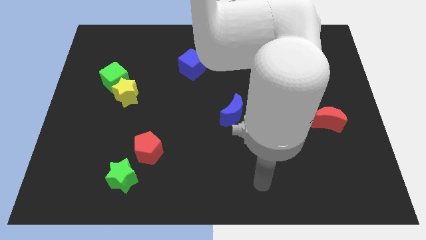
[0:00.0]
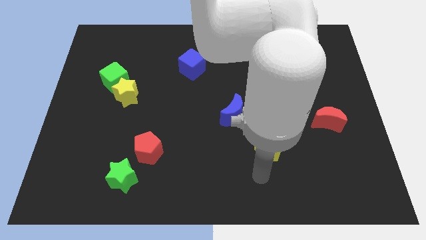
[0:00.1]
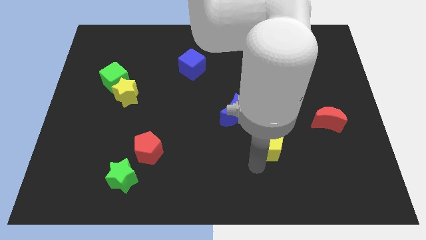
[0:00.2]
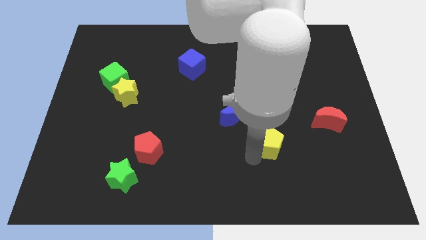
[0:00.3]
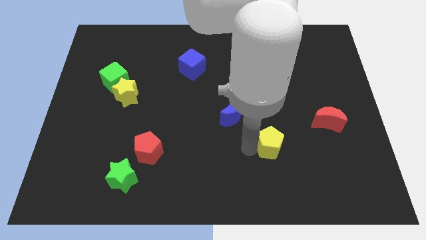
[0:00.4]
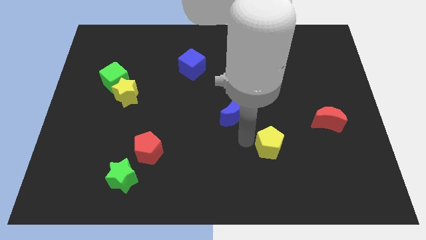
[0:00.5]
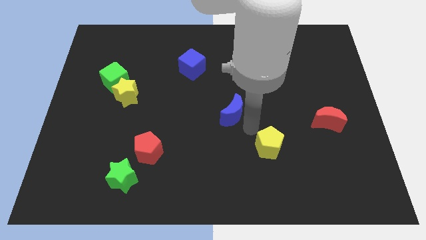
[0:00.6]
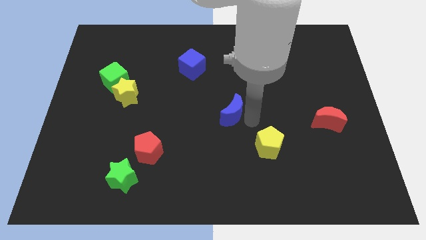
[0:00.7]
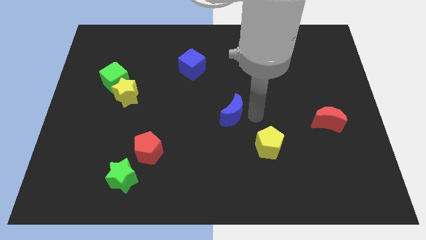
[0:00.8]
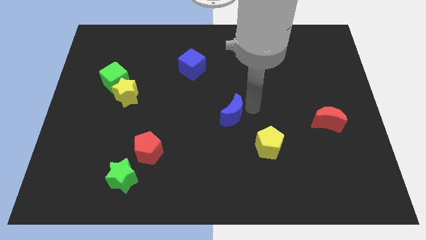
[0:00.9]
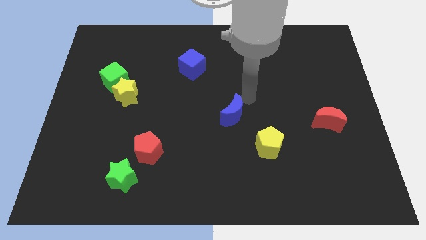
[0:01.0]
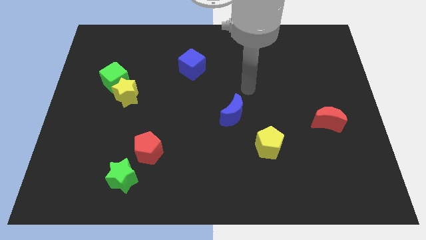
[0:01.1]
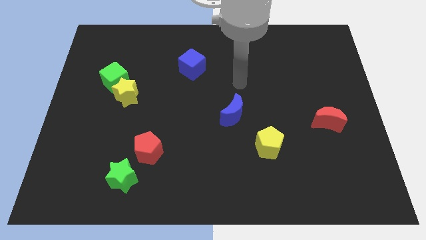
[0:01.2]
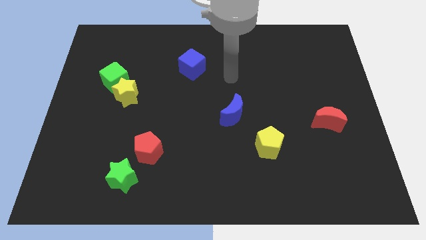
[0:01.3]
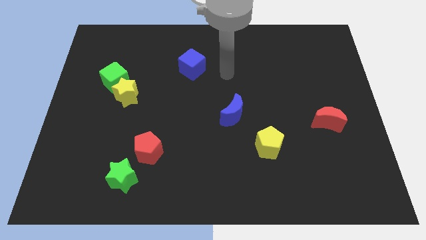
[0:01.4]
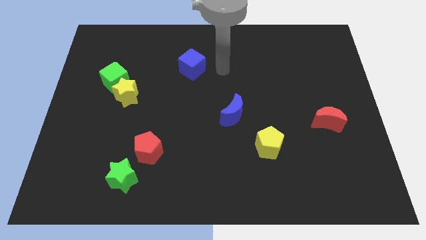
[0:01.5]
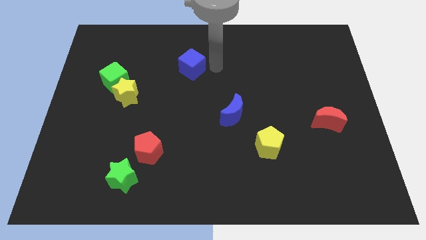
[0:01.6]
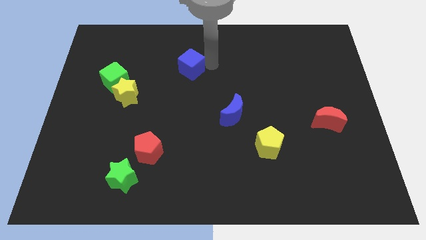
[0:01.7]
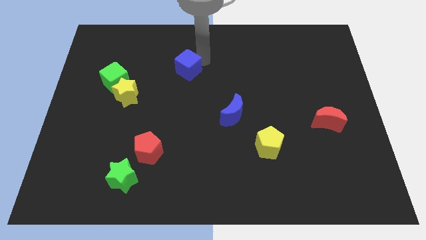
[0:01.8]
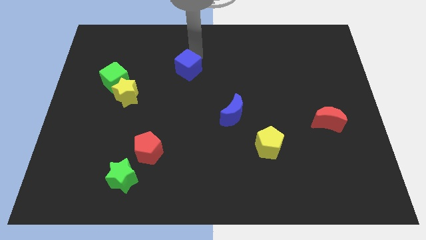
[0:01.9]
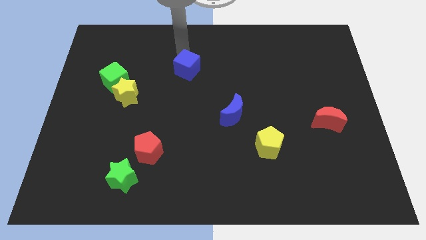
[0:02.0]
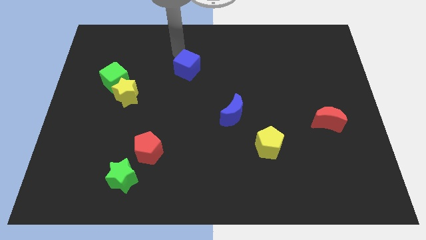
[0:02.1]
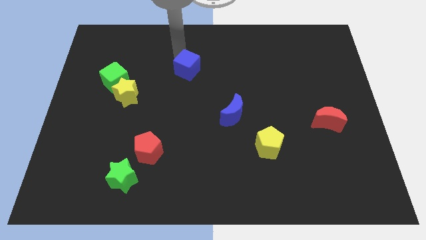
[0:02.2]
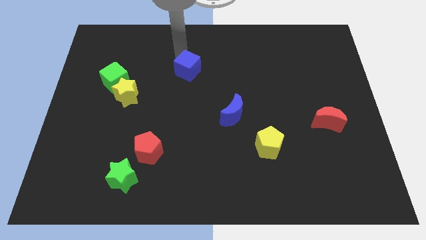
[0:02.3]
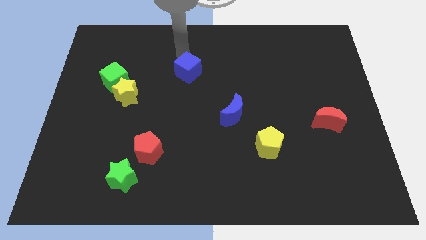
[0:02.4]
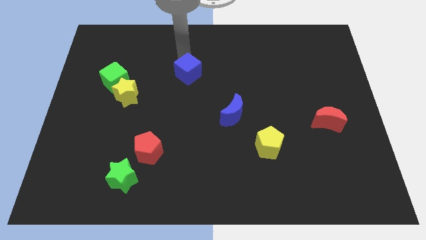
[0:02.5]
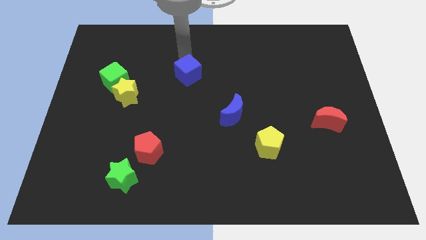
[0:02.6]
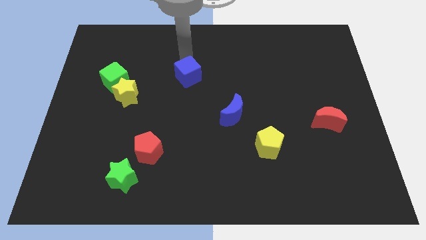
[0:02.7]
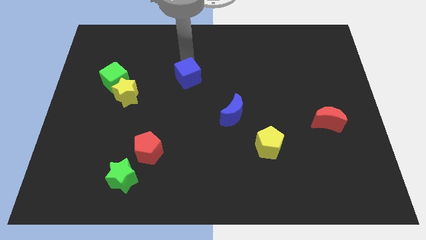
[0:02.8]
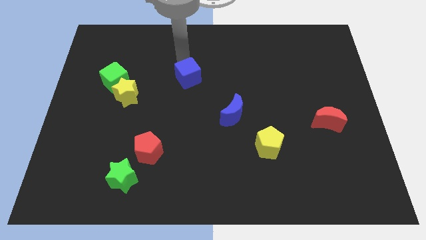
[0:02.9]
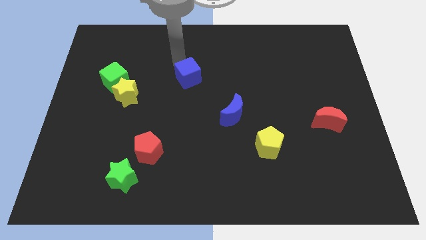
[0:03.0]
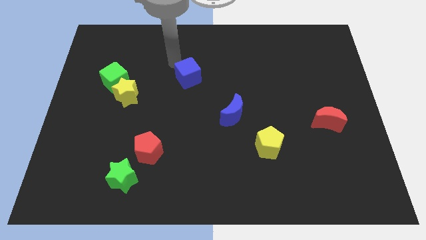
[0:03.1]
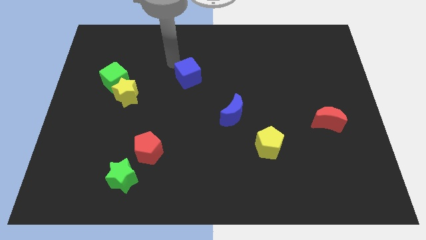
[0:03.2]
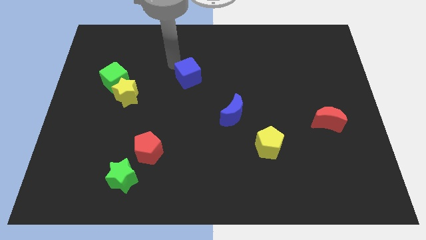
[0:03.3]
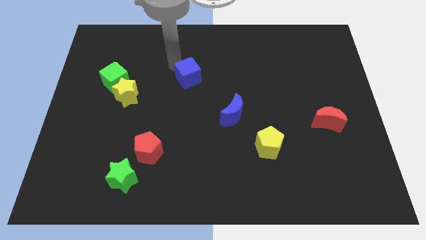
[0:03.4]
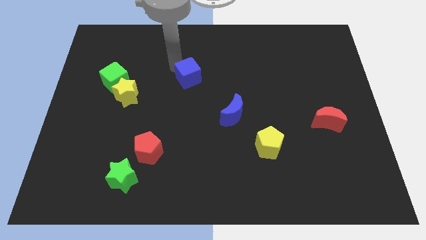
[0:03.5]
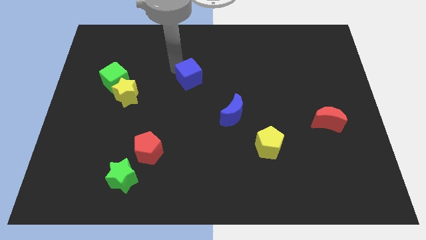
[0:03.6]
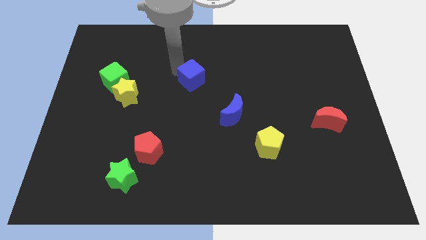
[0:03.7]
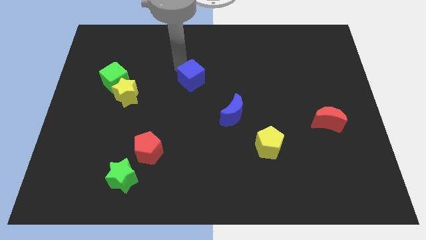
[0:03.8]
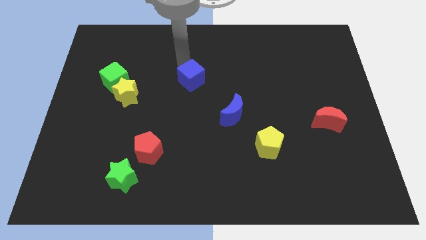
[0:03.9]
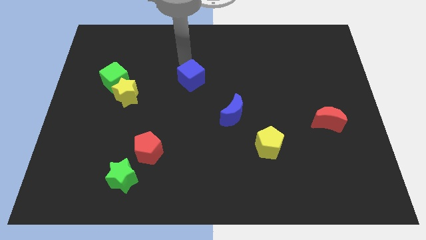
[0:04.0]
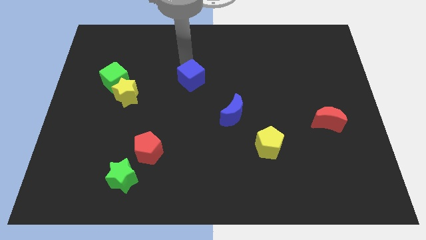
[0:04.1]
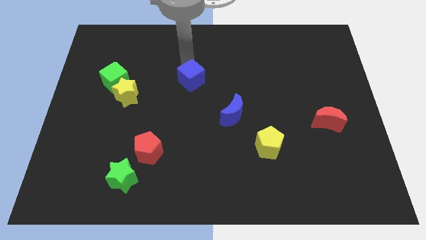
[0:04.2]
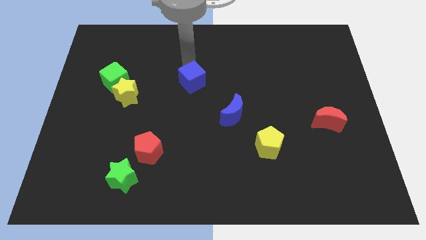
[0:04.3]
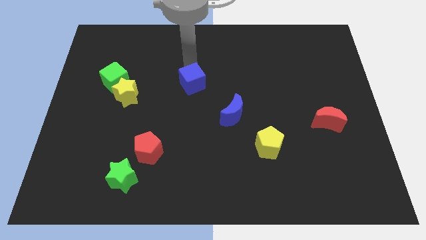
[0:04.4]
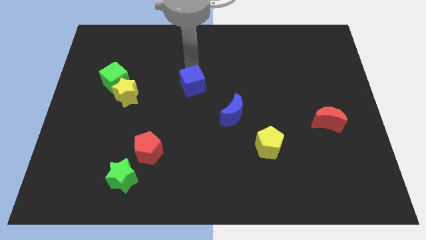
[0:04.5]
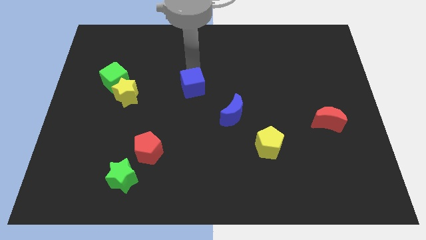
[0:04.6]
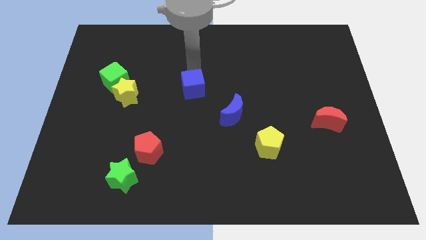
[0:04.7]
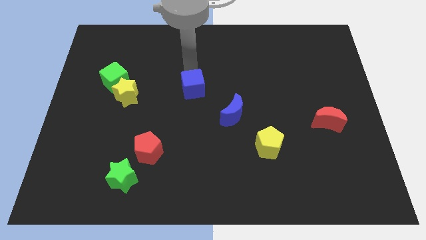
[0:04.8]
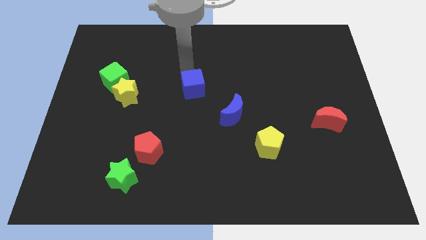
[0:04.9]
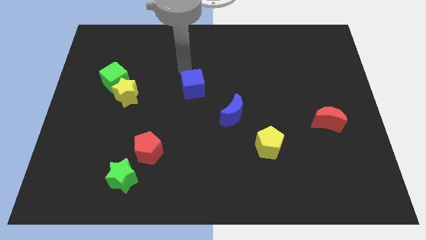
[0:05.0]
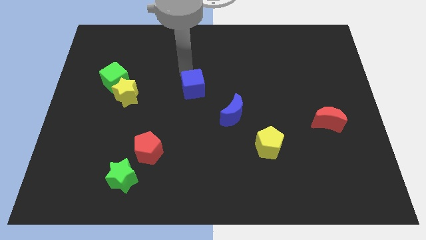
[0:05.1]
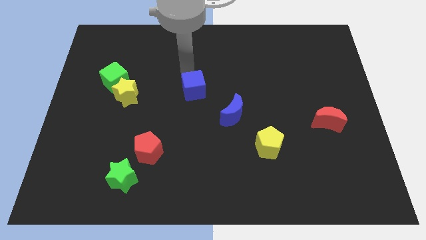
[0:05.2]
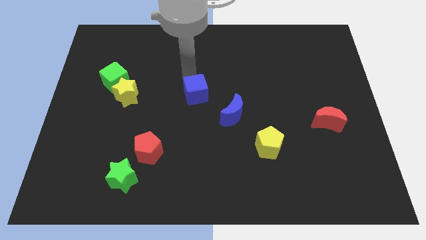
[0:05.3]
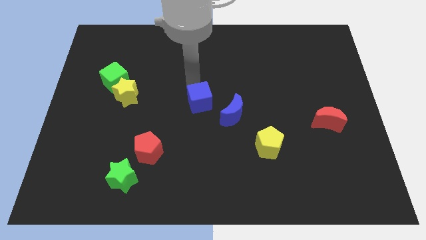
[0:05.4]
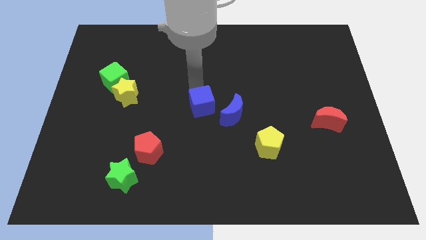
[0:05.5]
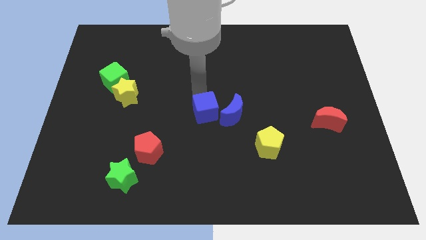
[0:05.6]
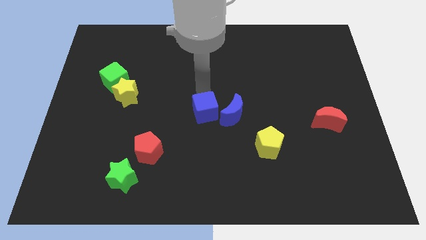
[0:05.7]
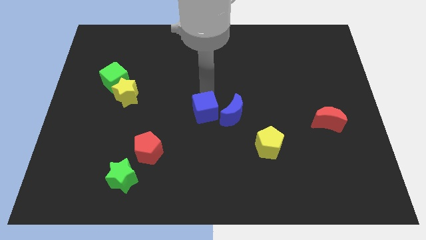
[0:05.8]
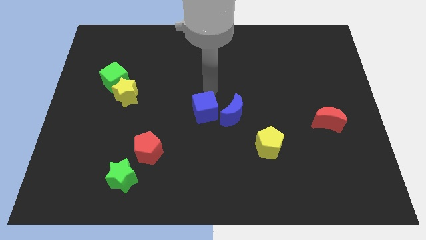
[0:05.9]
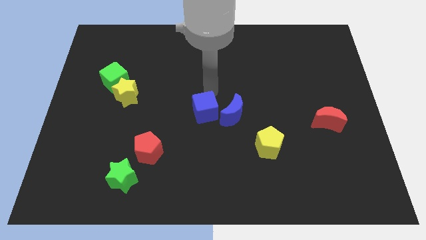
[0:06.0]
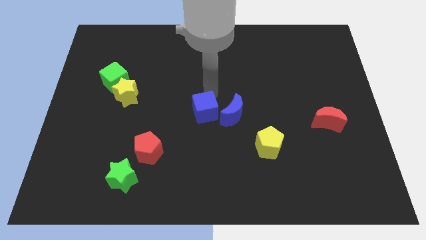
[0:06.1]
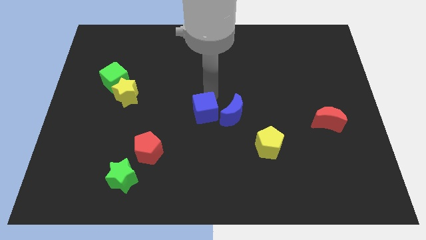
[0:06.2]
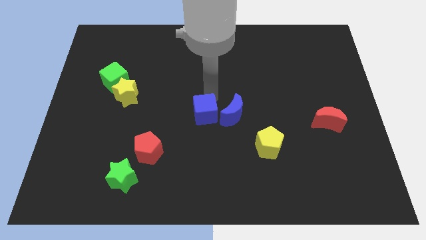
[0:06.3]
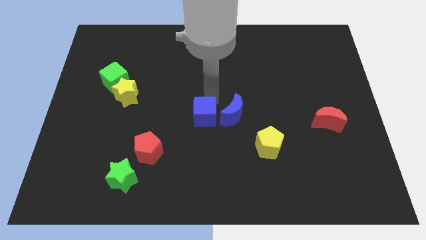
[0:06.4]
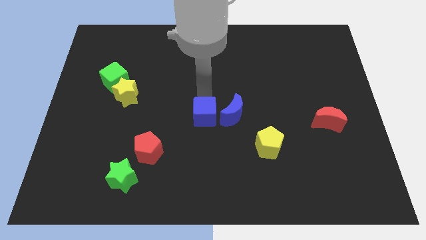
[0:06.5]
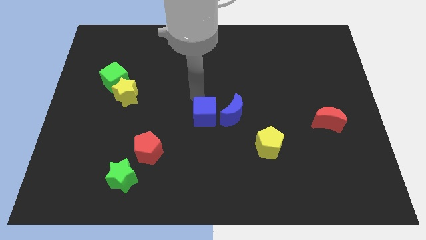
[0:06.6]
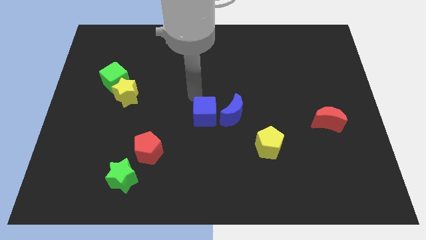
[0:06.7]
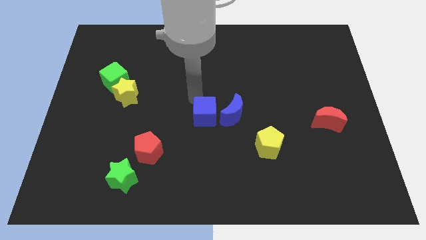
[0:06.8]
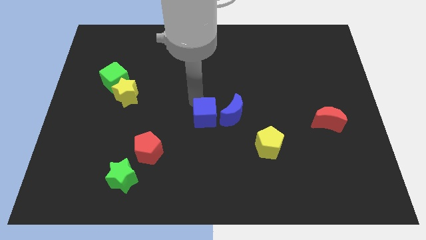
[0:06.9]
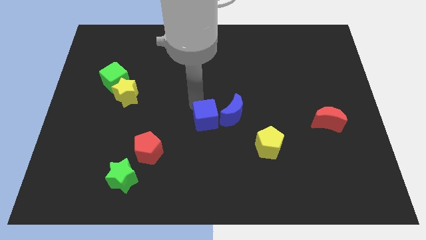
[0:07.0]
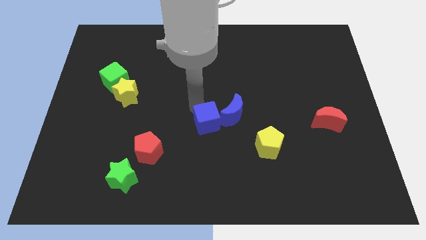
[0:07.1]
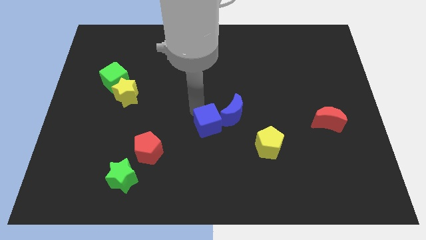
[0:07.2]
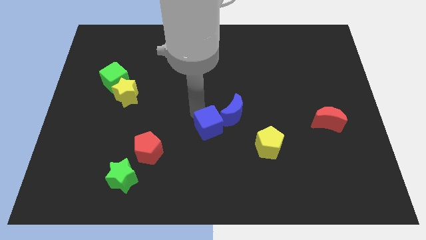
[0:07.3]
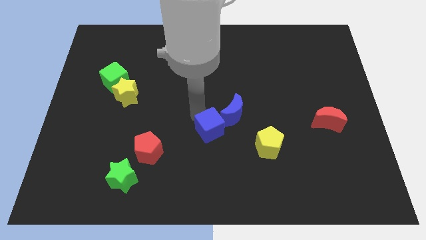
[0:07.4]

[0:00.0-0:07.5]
slide the blue cube just left of the yellow pentagon
